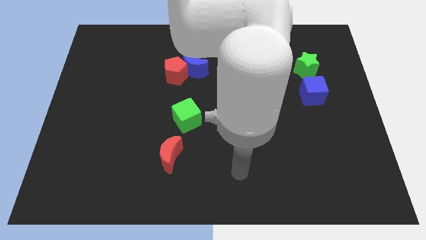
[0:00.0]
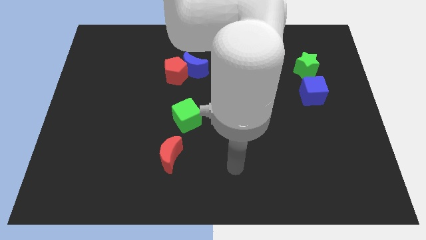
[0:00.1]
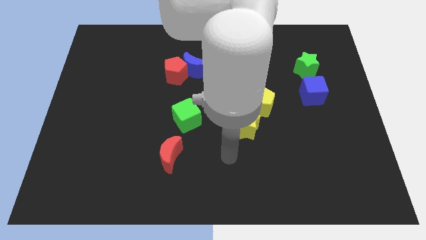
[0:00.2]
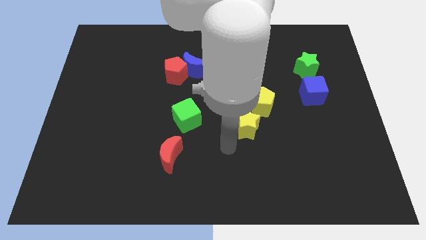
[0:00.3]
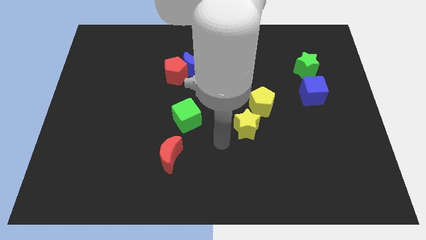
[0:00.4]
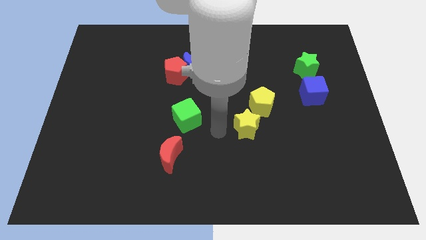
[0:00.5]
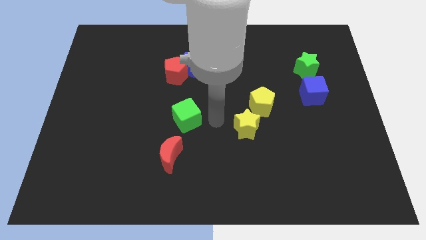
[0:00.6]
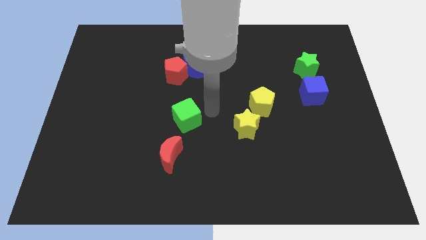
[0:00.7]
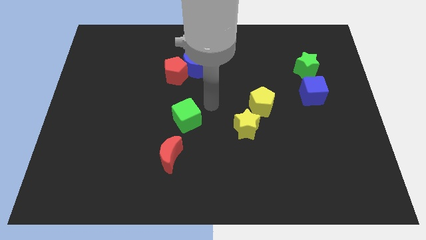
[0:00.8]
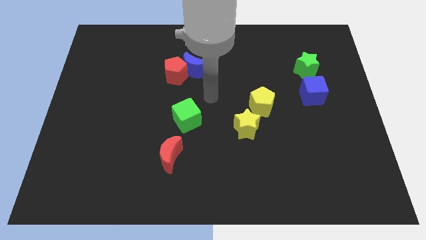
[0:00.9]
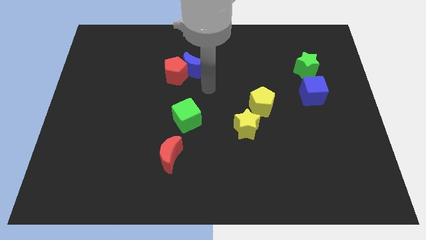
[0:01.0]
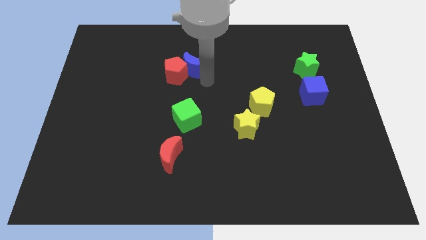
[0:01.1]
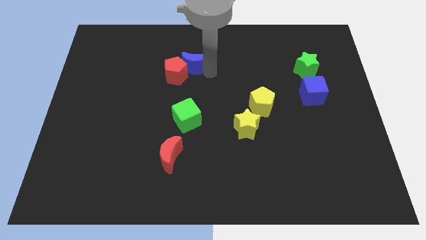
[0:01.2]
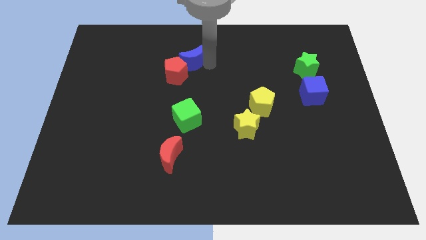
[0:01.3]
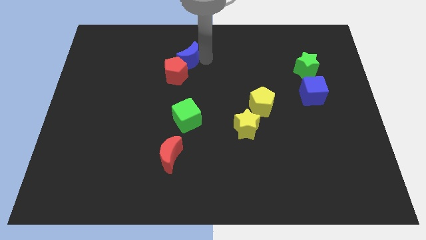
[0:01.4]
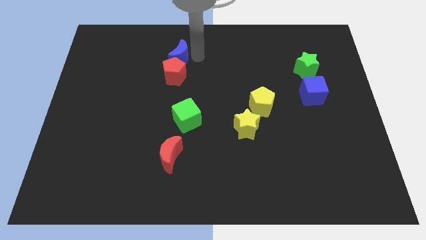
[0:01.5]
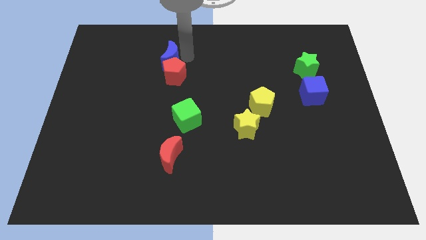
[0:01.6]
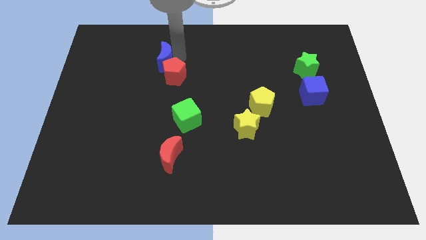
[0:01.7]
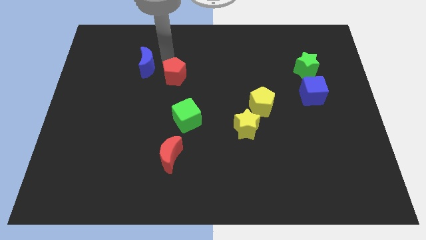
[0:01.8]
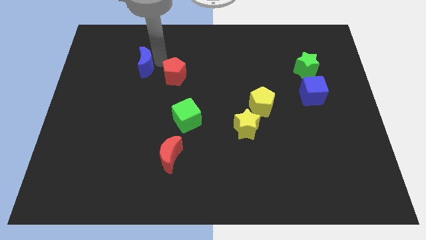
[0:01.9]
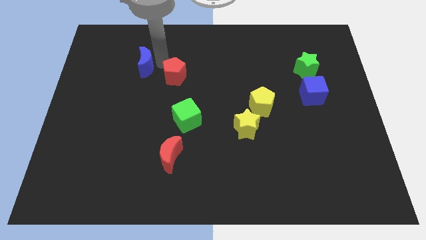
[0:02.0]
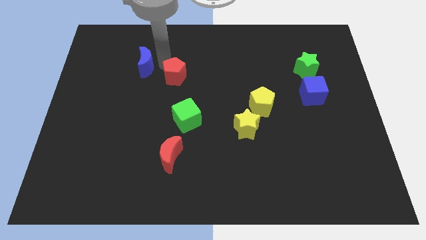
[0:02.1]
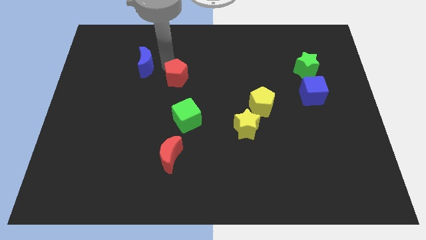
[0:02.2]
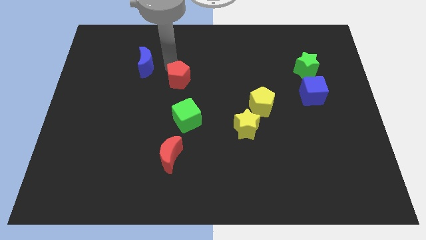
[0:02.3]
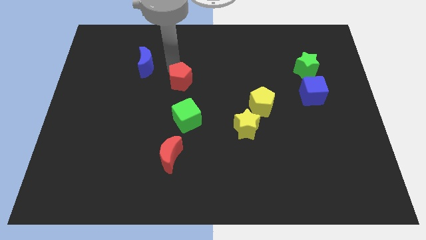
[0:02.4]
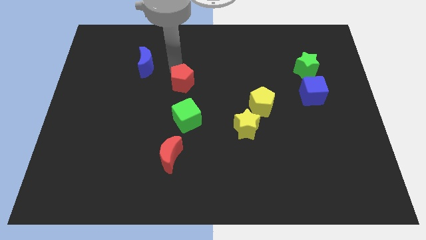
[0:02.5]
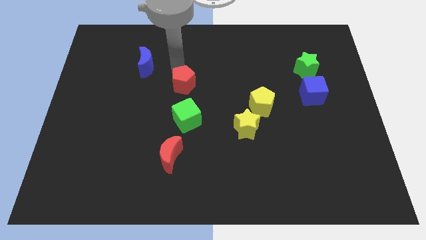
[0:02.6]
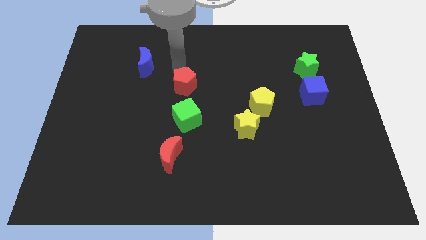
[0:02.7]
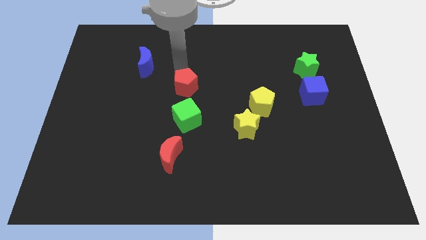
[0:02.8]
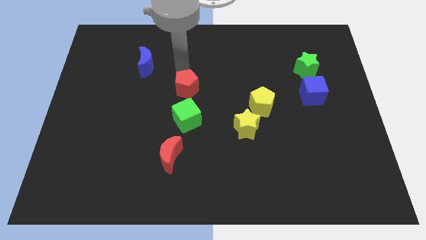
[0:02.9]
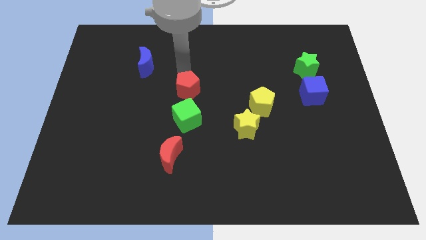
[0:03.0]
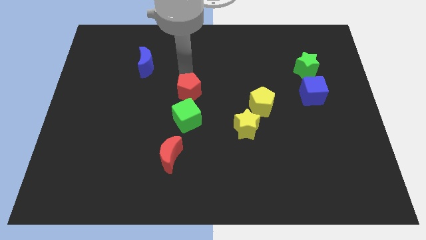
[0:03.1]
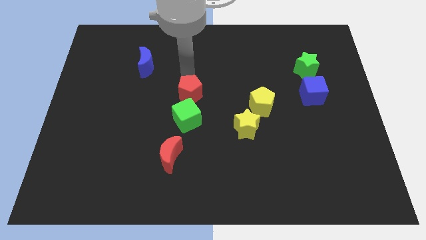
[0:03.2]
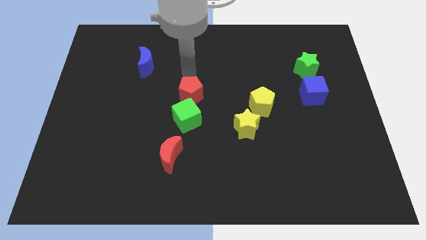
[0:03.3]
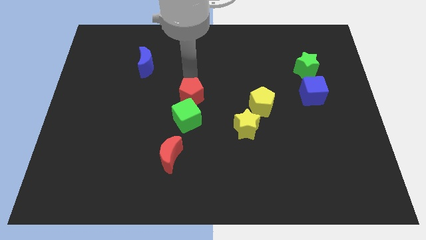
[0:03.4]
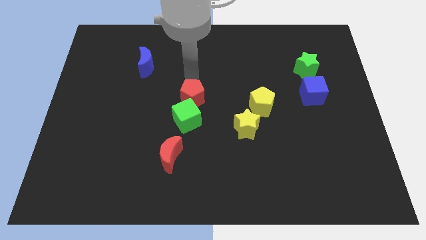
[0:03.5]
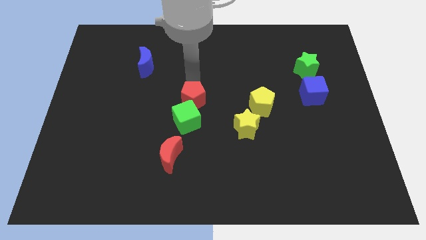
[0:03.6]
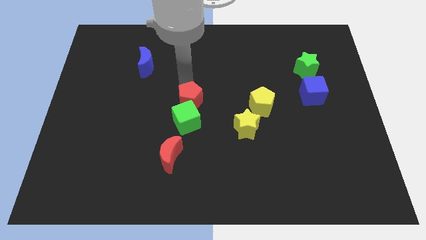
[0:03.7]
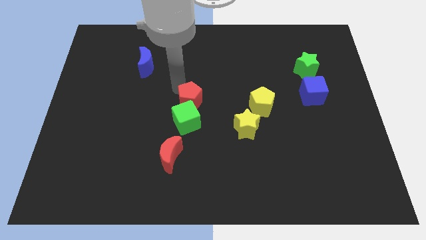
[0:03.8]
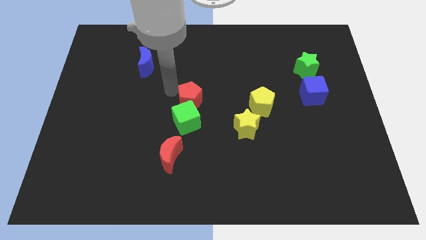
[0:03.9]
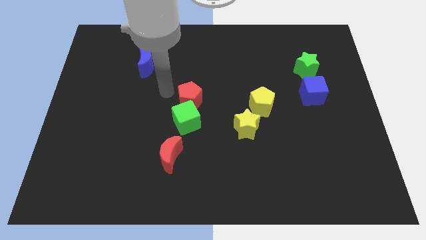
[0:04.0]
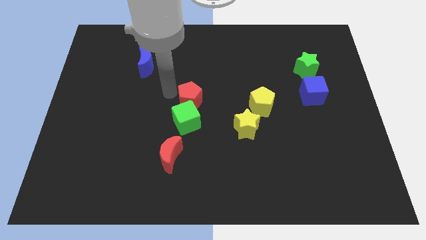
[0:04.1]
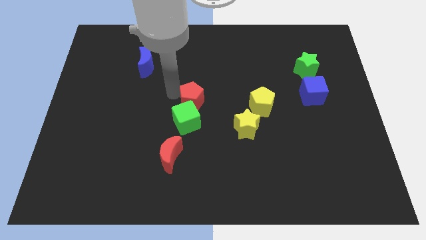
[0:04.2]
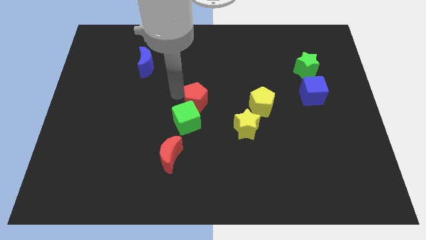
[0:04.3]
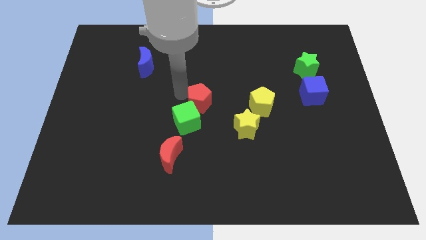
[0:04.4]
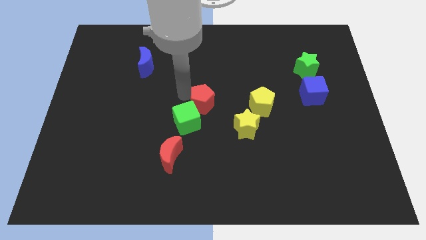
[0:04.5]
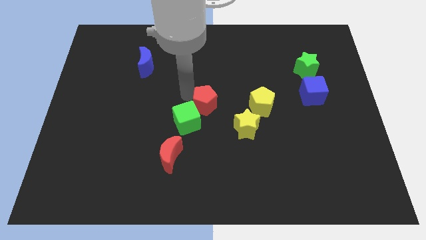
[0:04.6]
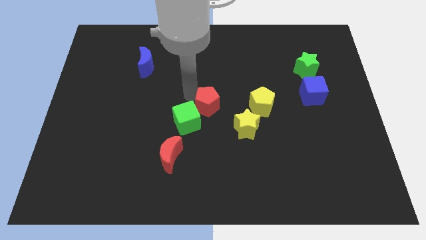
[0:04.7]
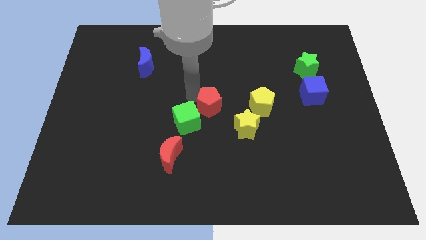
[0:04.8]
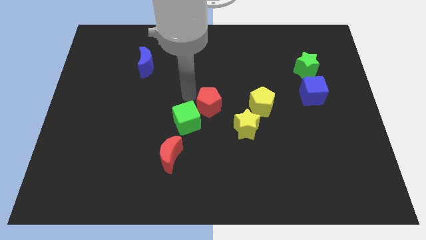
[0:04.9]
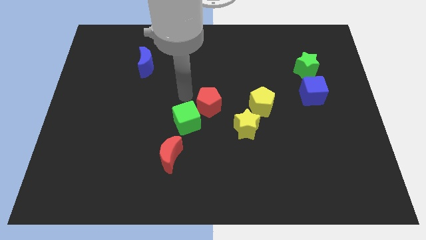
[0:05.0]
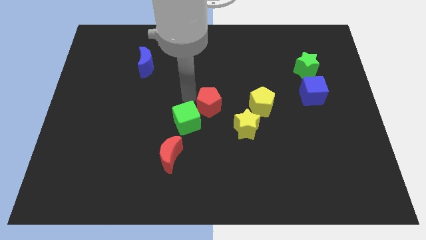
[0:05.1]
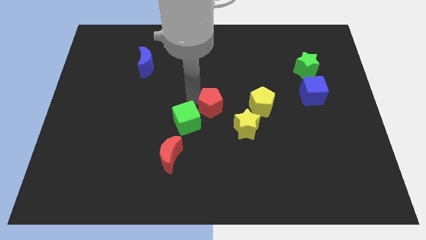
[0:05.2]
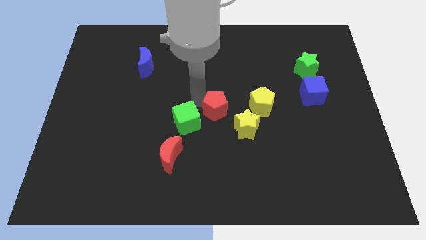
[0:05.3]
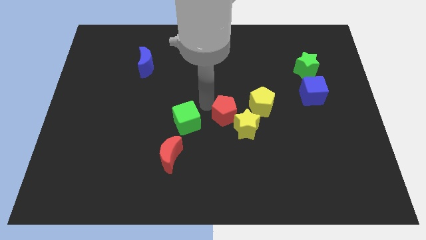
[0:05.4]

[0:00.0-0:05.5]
move the red pentagon to the yellow star

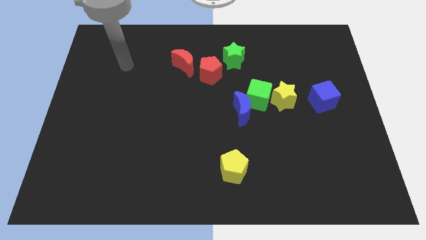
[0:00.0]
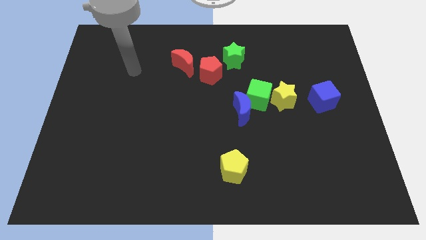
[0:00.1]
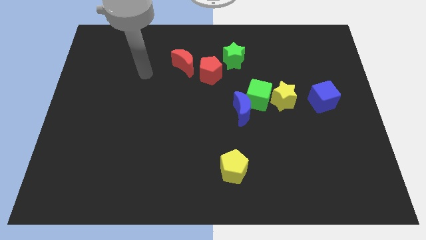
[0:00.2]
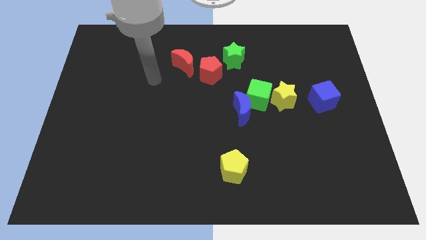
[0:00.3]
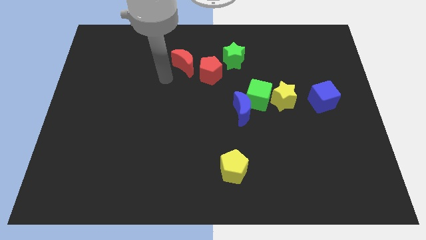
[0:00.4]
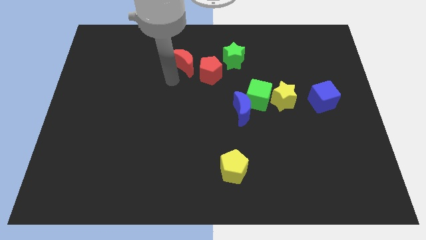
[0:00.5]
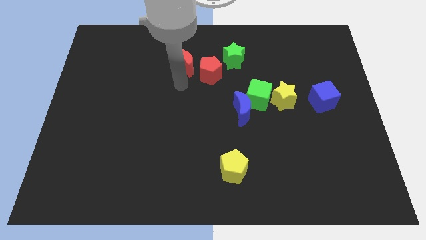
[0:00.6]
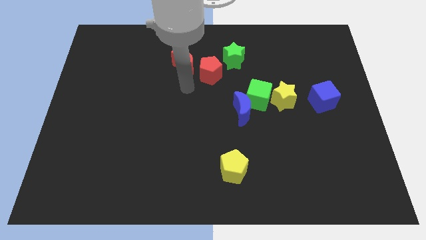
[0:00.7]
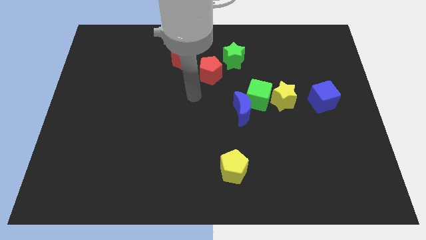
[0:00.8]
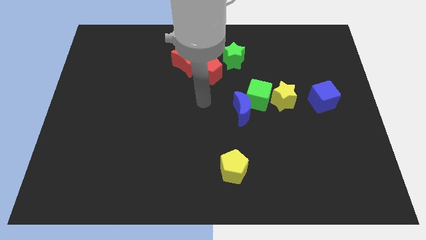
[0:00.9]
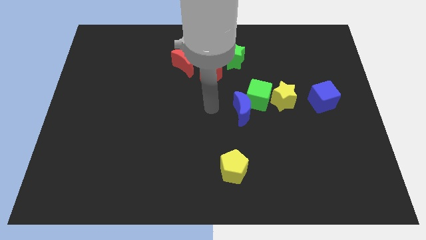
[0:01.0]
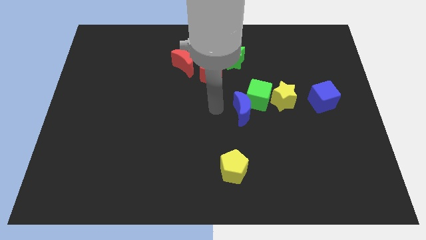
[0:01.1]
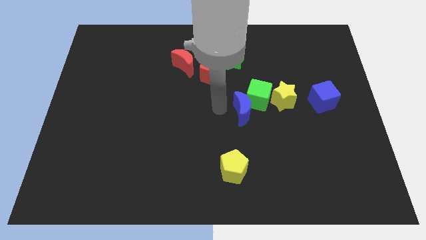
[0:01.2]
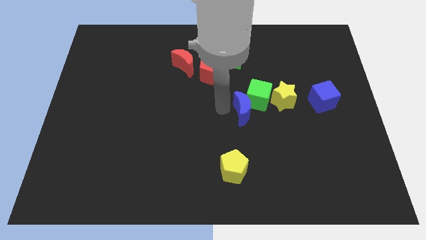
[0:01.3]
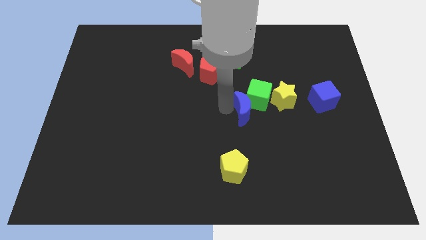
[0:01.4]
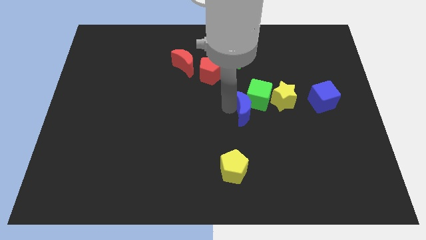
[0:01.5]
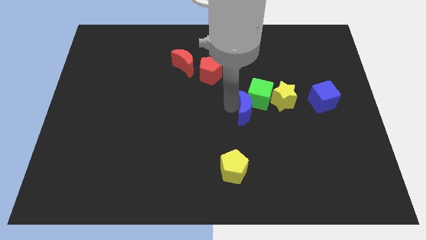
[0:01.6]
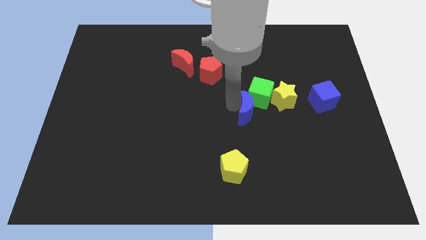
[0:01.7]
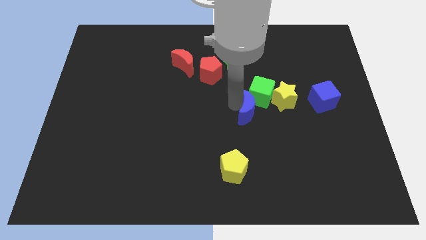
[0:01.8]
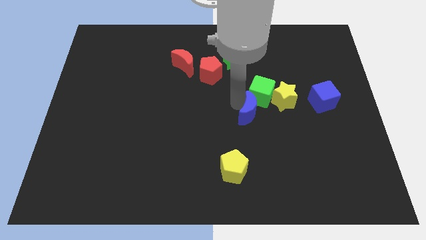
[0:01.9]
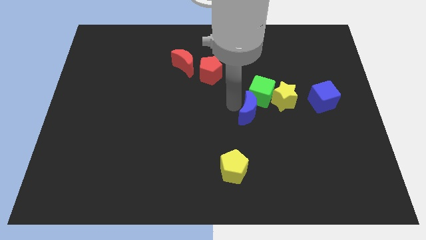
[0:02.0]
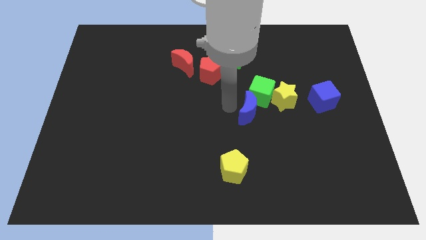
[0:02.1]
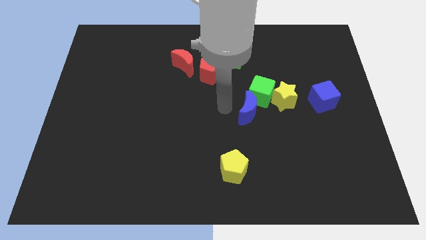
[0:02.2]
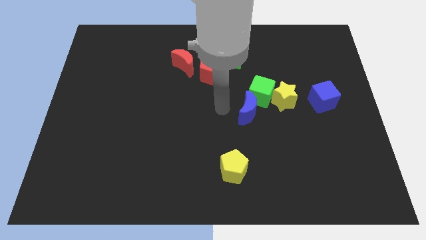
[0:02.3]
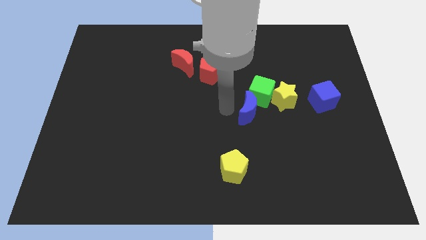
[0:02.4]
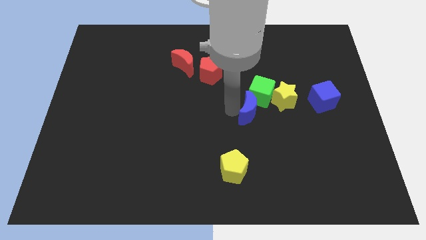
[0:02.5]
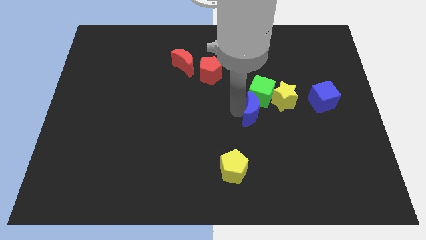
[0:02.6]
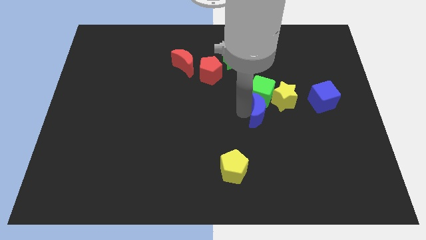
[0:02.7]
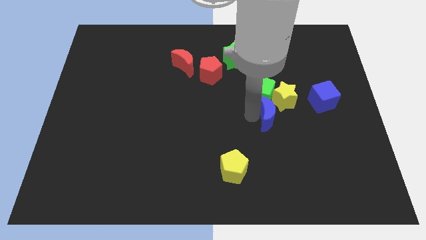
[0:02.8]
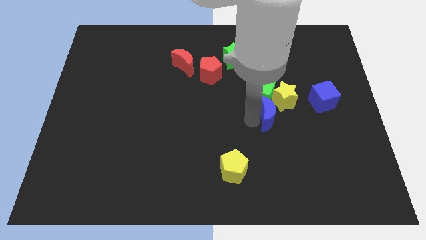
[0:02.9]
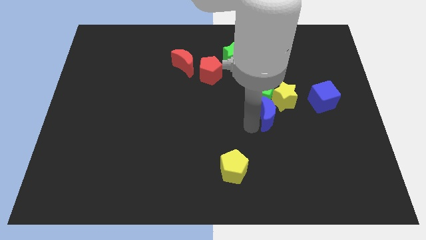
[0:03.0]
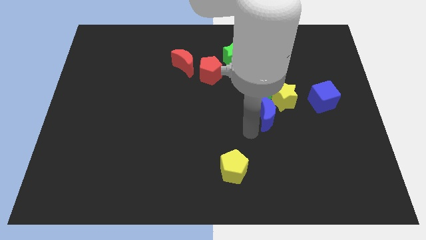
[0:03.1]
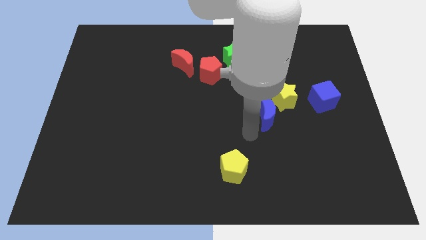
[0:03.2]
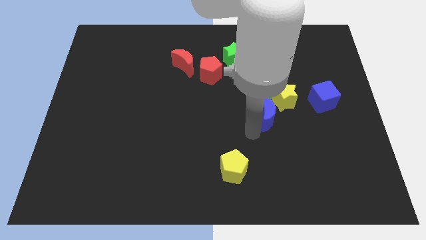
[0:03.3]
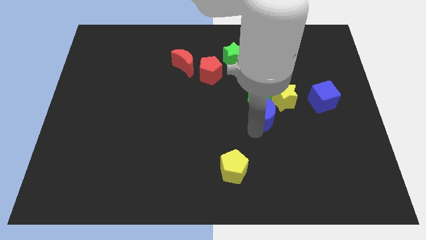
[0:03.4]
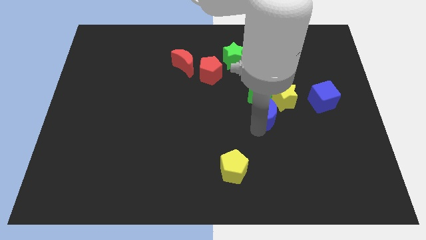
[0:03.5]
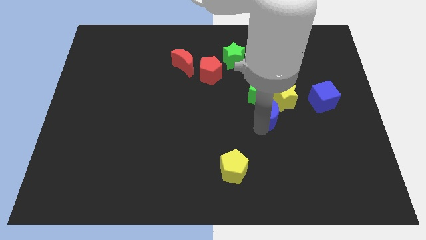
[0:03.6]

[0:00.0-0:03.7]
put the blue moon next to the yellow star
